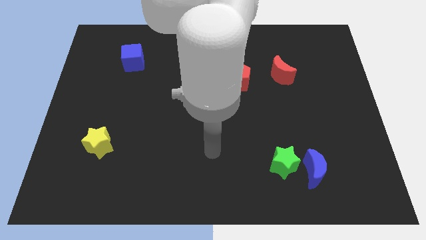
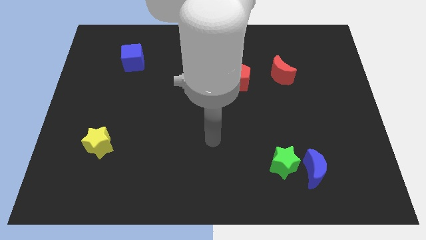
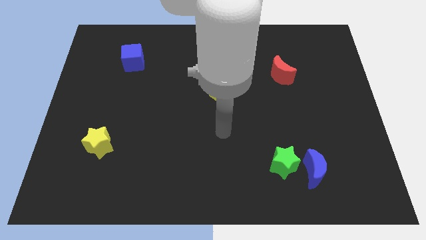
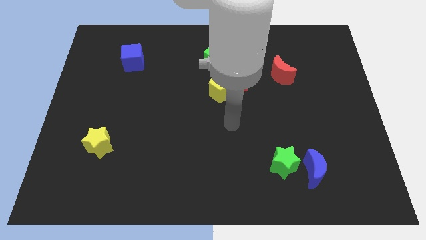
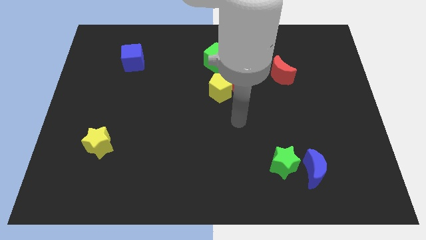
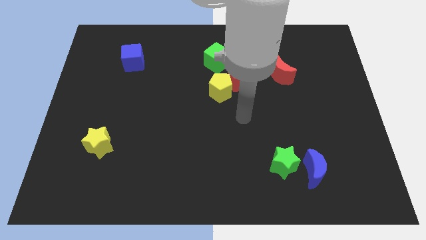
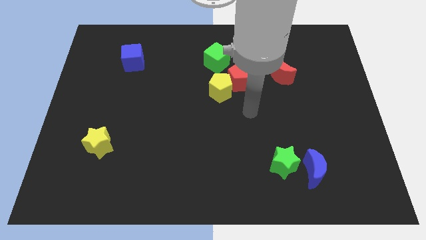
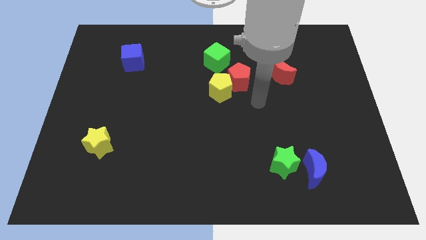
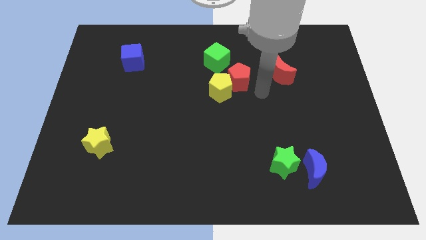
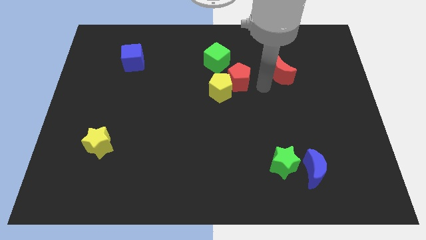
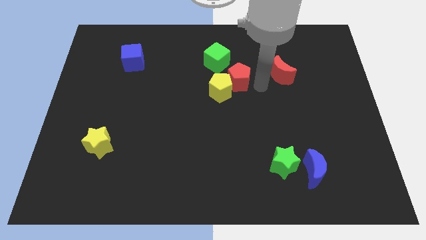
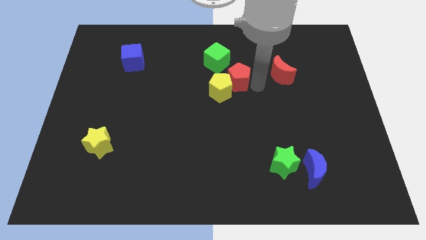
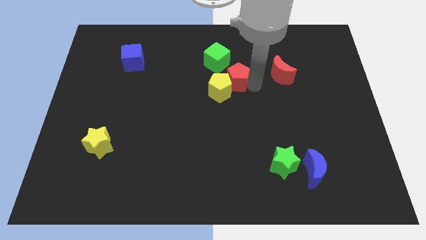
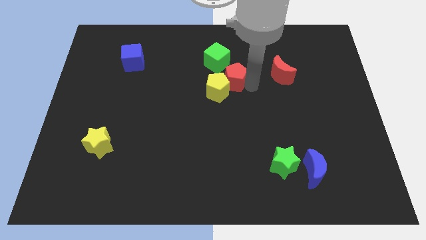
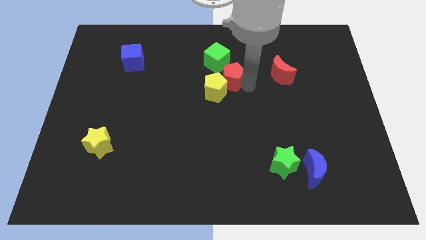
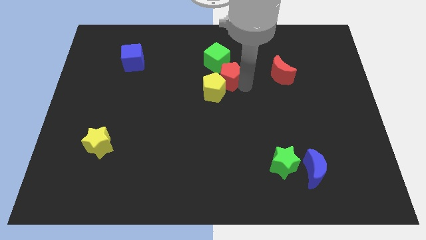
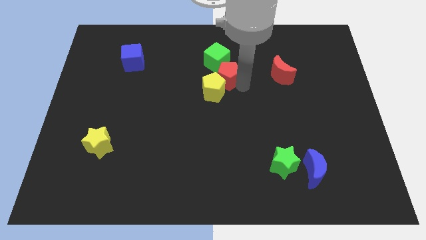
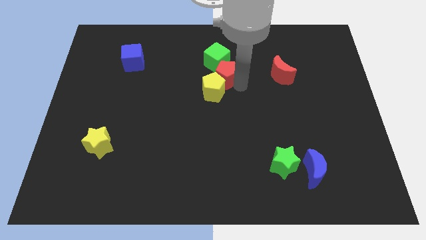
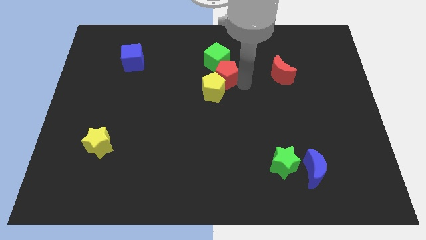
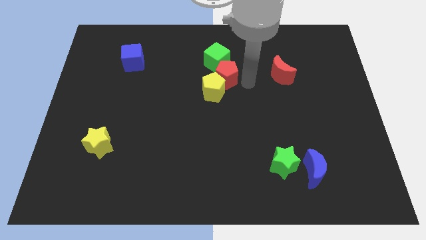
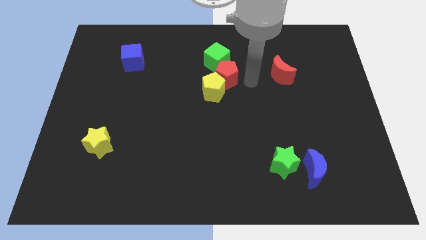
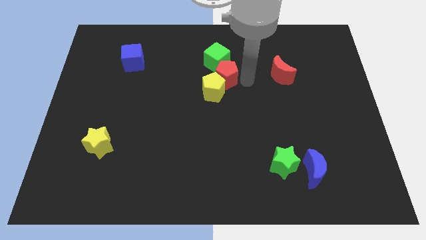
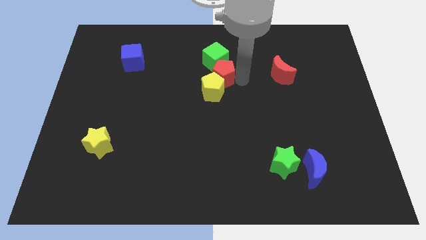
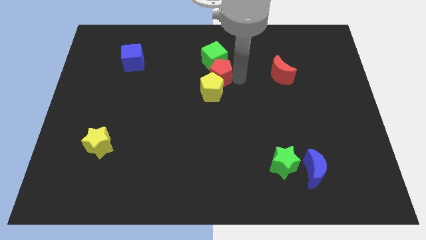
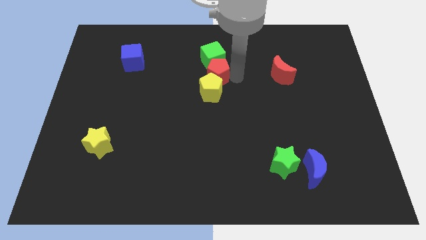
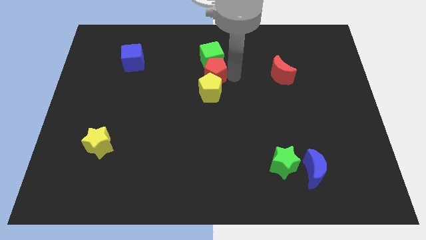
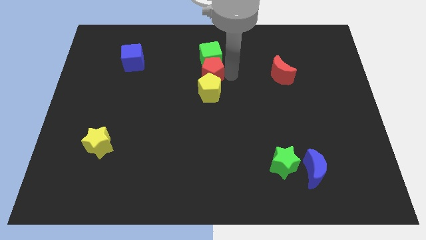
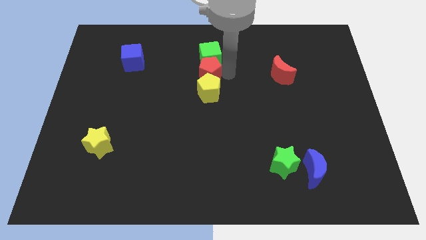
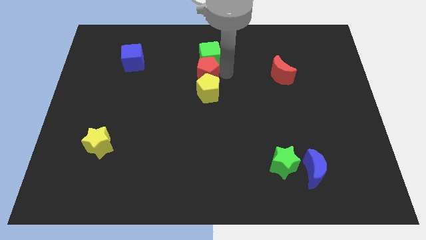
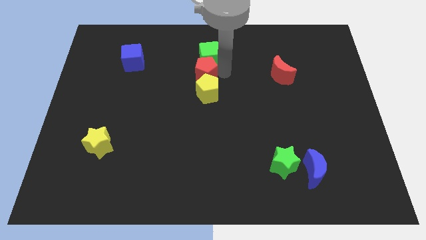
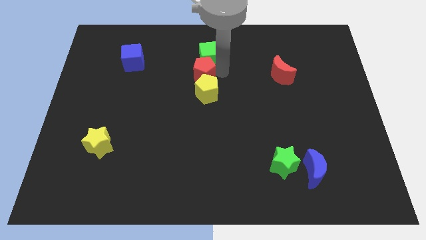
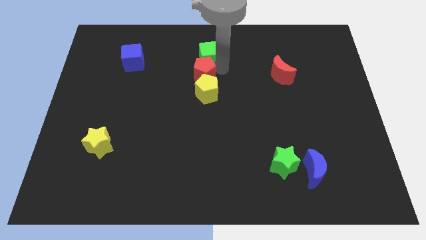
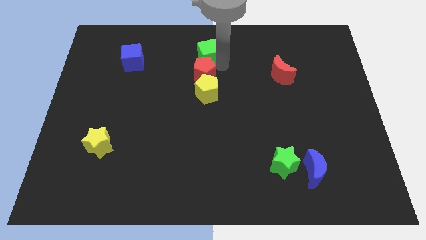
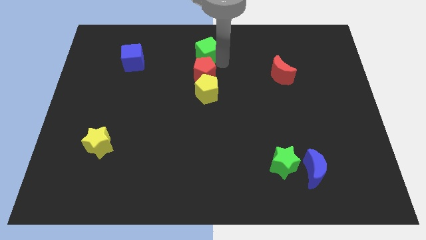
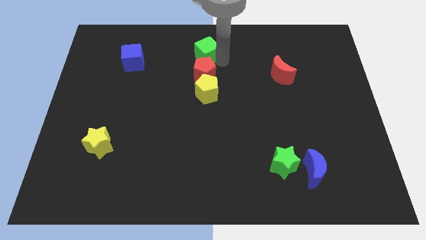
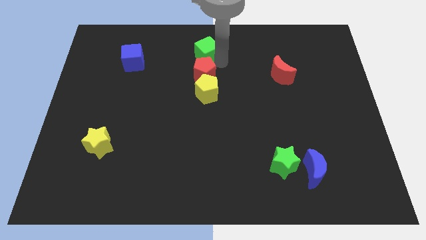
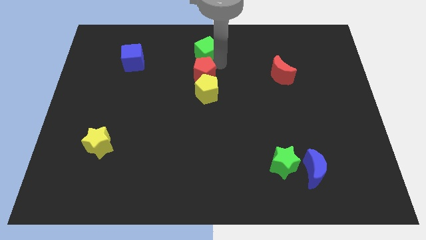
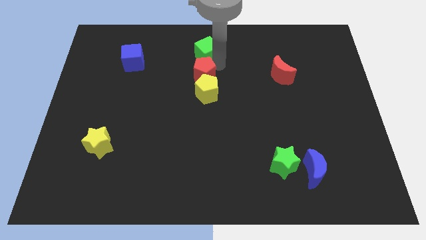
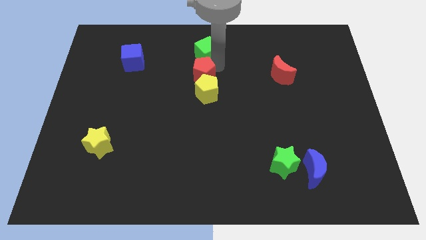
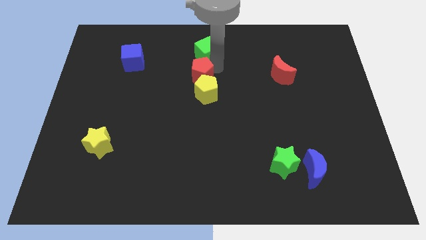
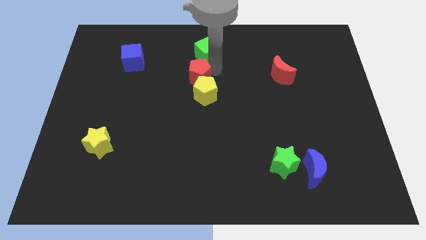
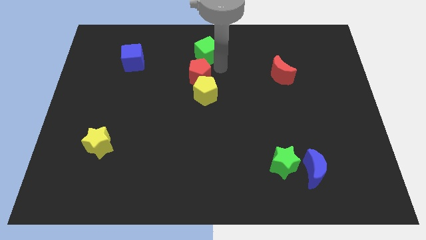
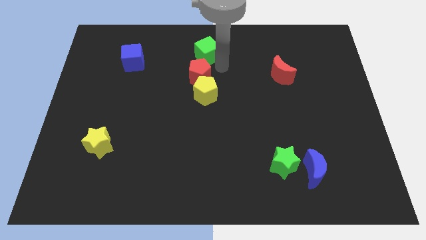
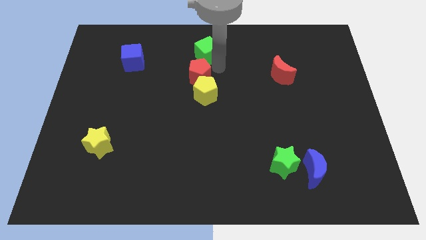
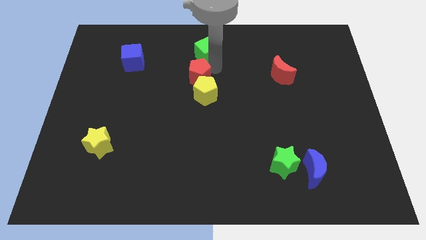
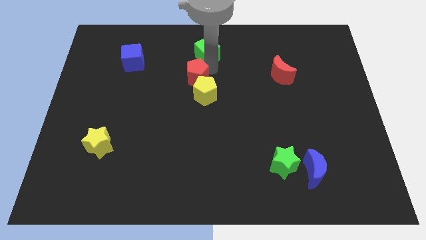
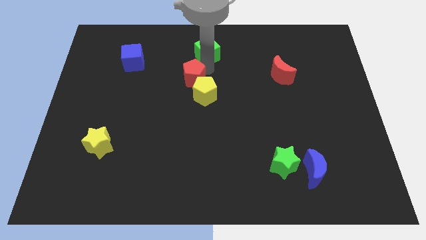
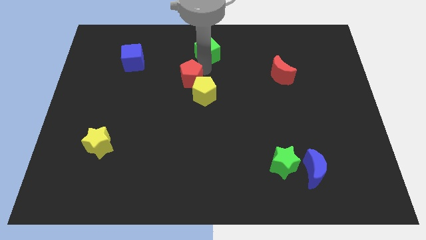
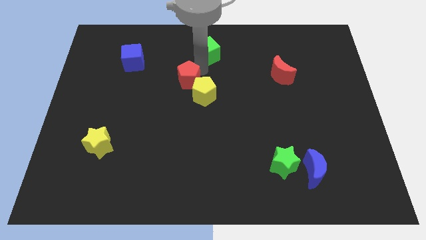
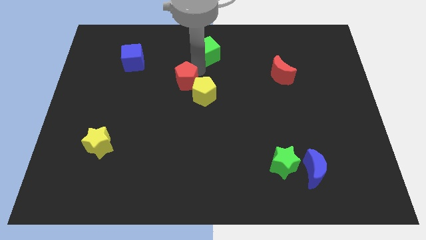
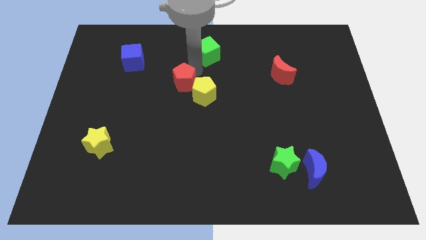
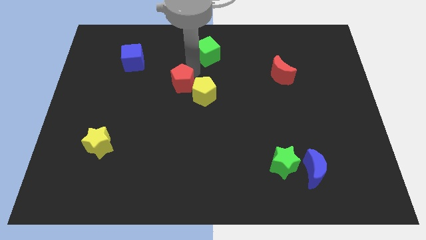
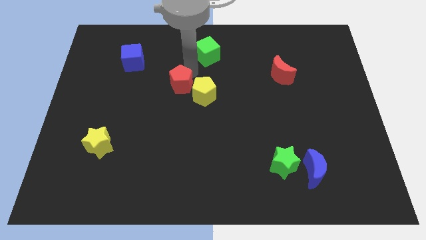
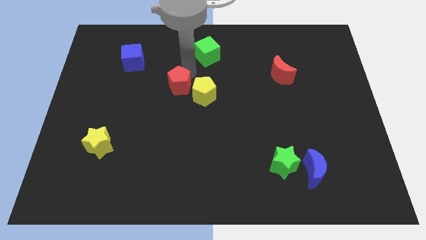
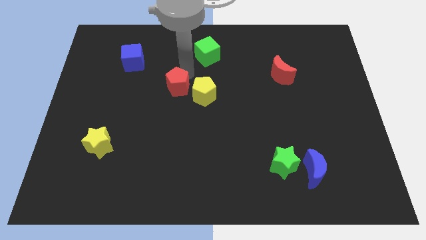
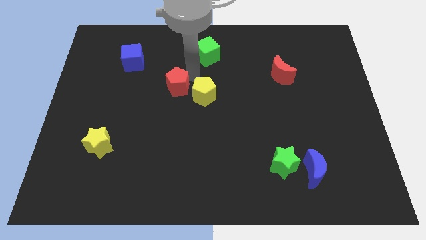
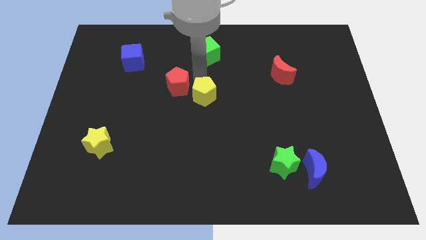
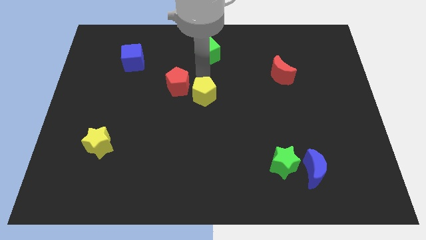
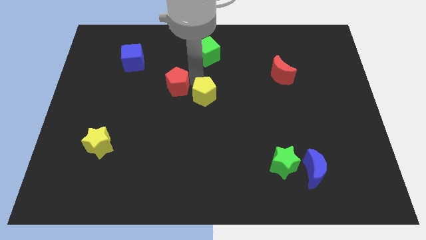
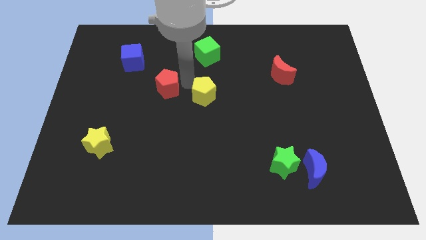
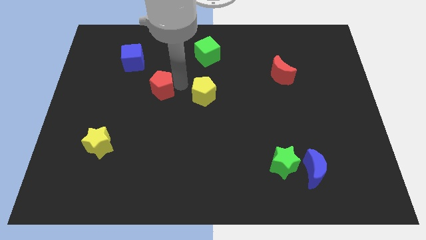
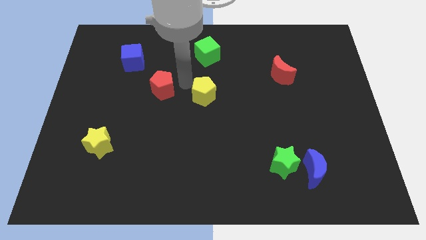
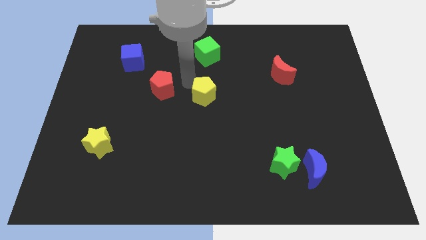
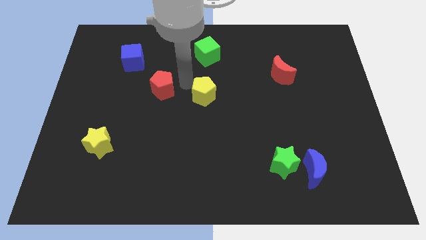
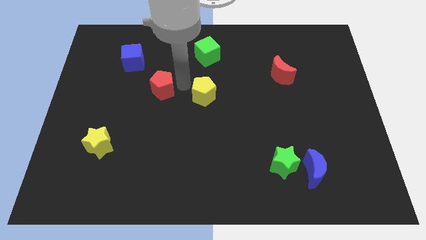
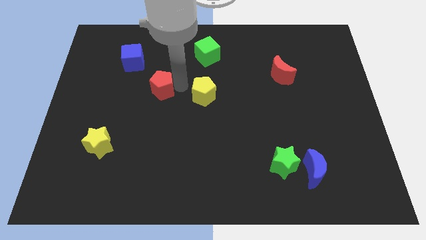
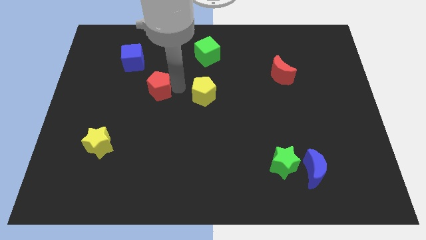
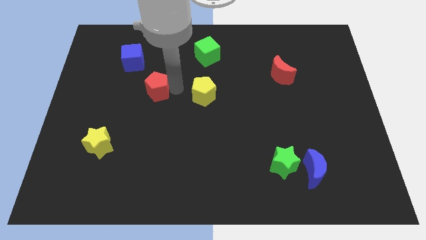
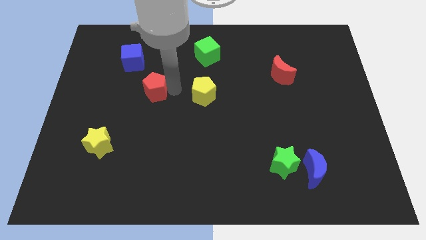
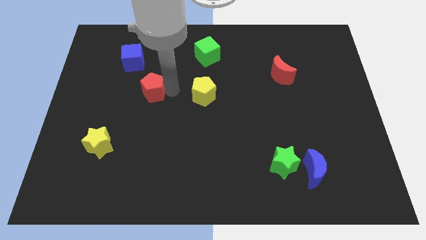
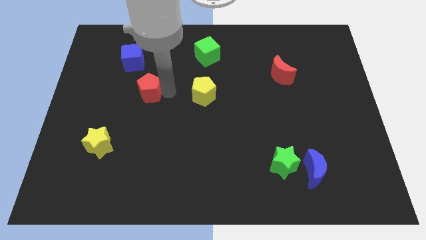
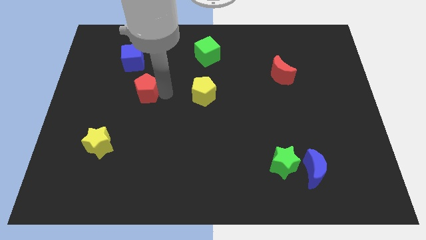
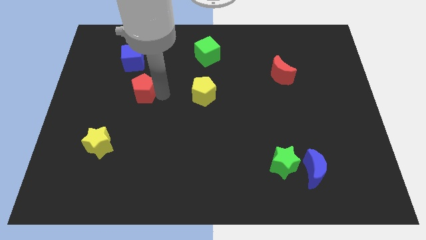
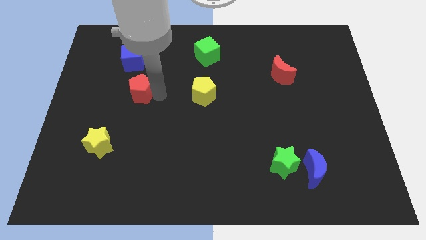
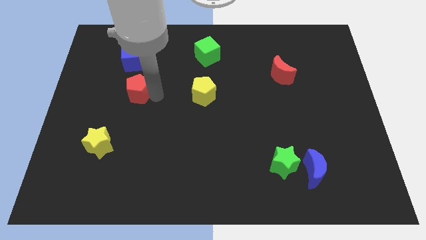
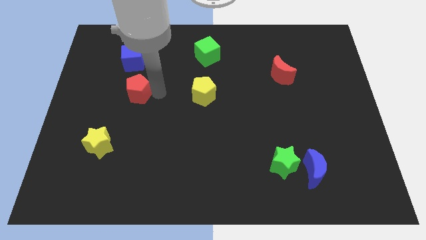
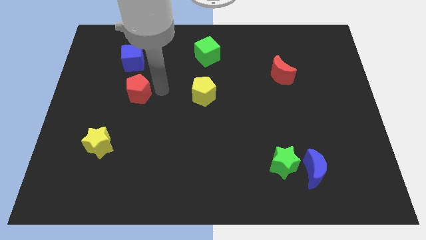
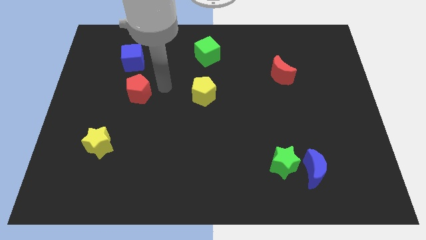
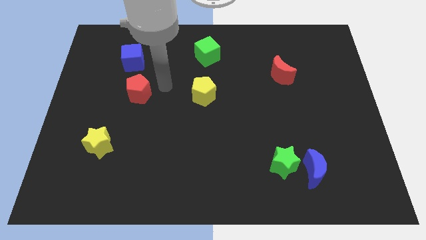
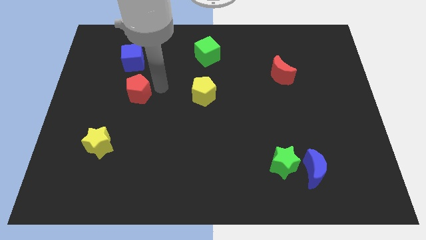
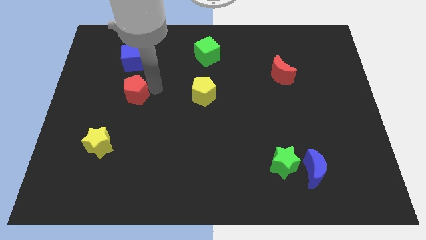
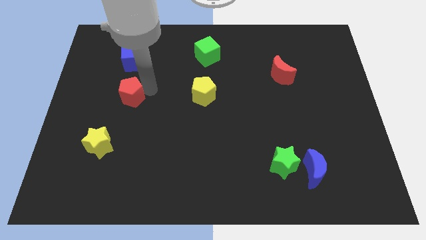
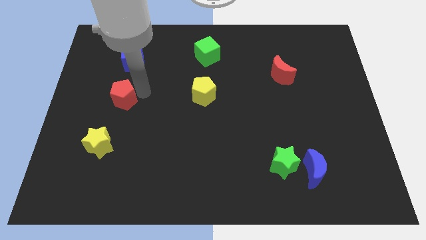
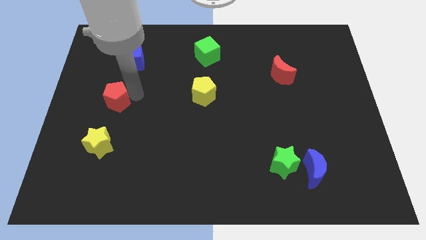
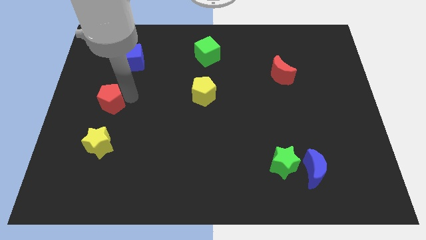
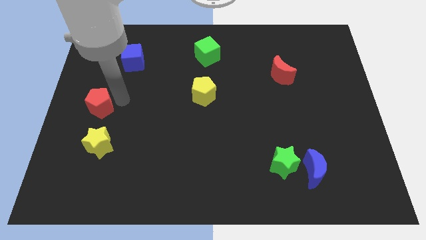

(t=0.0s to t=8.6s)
put the red pentagon to the center left
